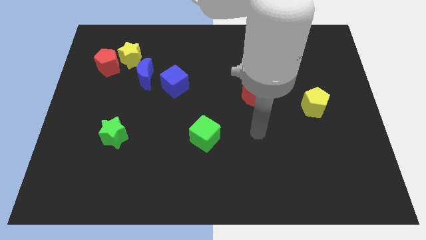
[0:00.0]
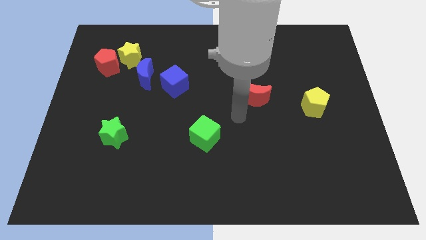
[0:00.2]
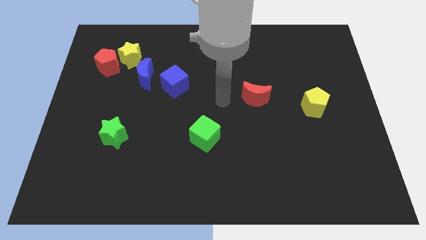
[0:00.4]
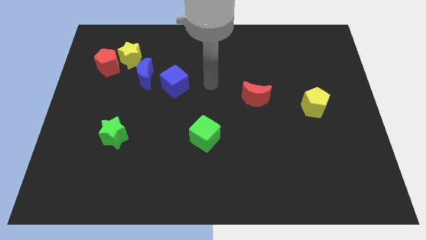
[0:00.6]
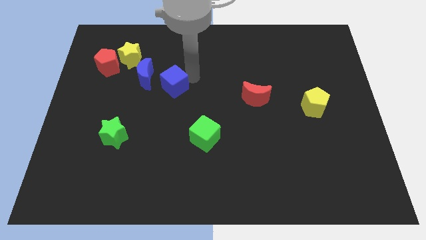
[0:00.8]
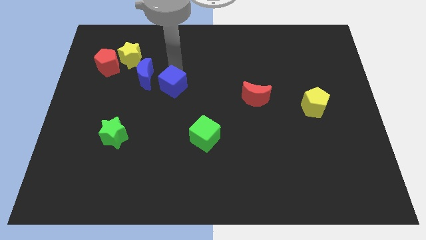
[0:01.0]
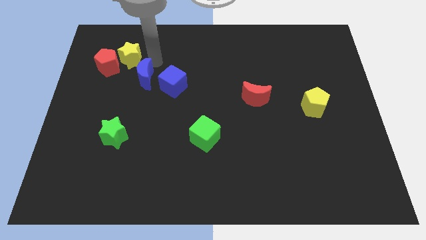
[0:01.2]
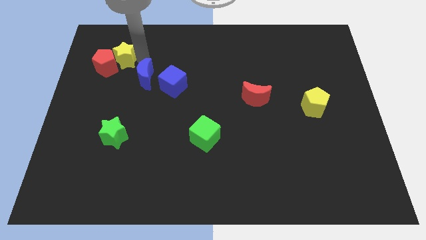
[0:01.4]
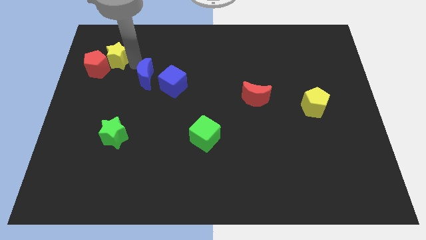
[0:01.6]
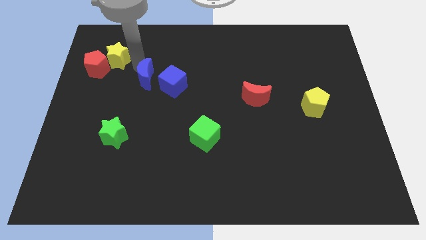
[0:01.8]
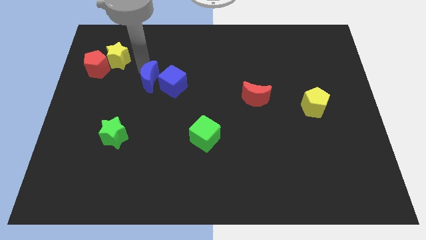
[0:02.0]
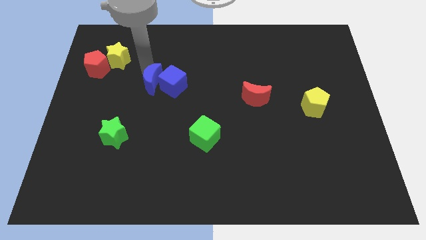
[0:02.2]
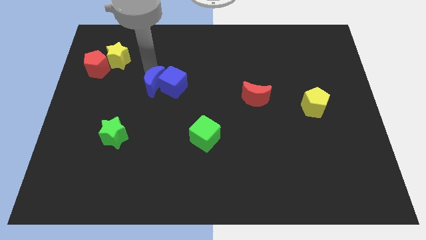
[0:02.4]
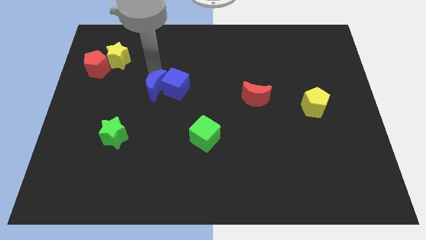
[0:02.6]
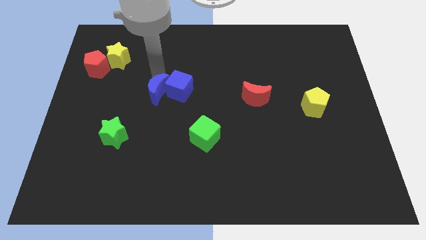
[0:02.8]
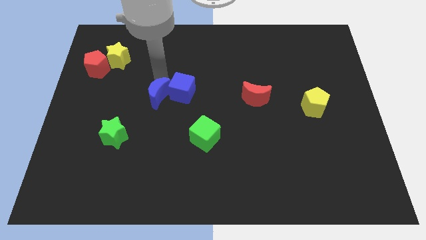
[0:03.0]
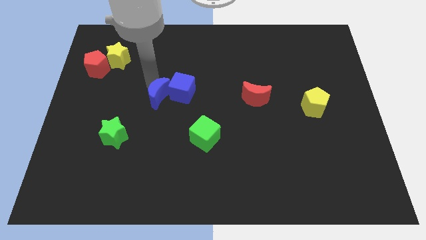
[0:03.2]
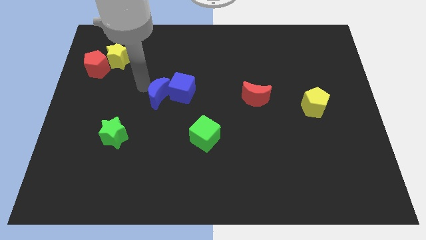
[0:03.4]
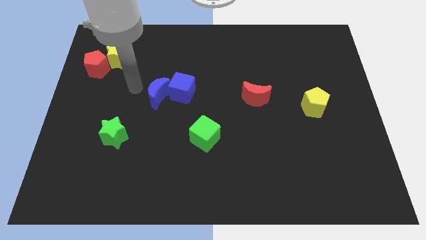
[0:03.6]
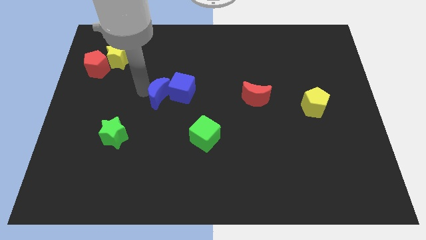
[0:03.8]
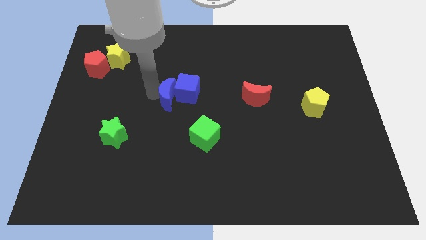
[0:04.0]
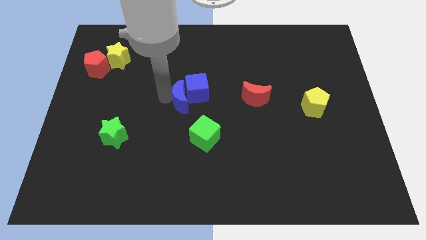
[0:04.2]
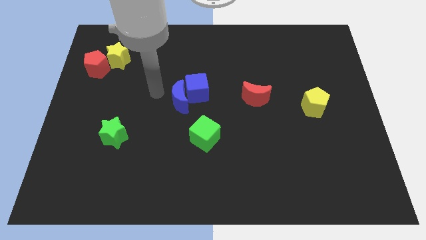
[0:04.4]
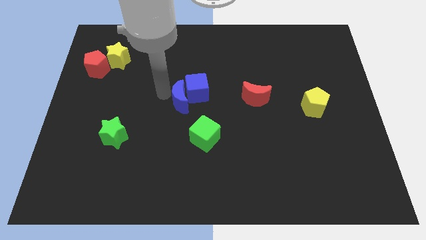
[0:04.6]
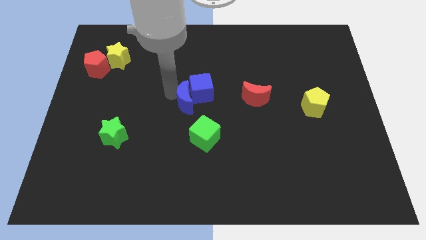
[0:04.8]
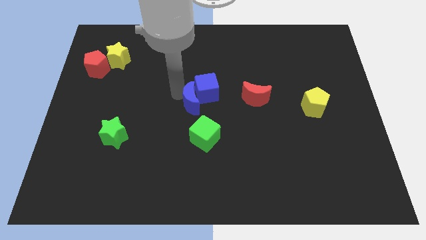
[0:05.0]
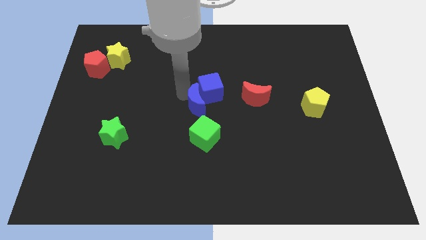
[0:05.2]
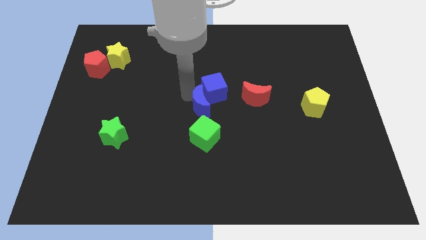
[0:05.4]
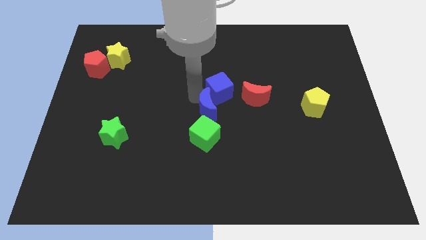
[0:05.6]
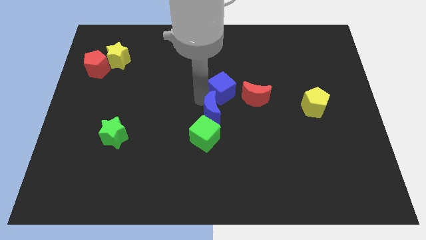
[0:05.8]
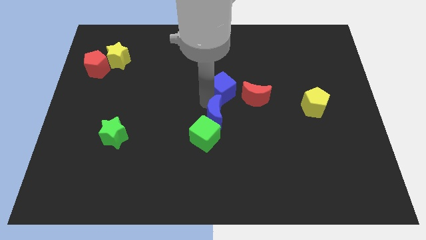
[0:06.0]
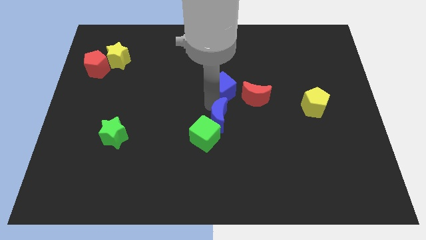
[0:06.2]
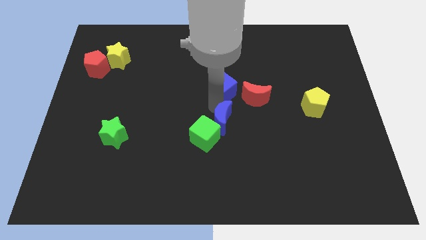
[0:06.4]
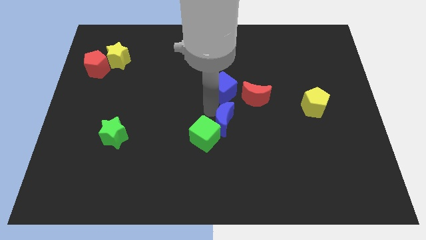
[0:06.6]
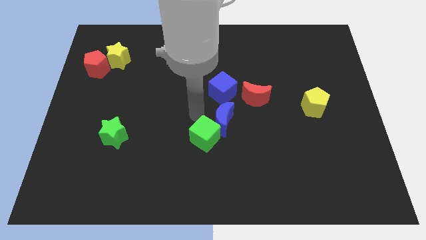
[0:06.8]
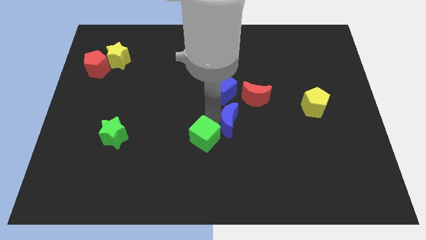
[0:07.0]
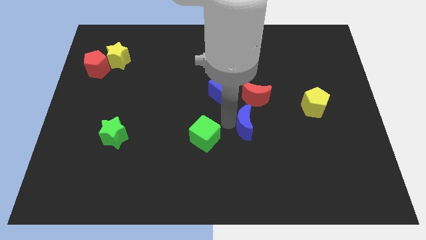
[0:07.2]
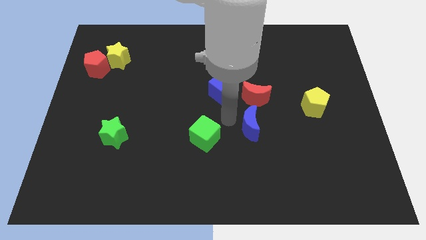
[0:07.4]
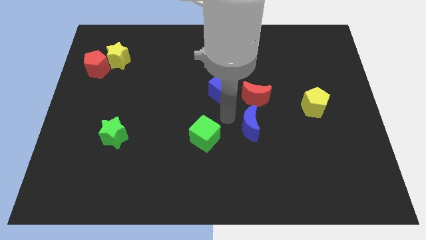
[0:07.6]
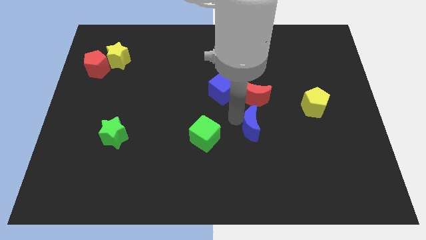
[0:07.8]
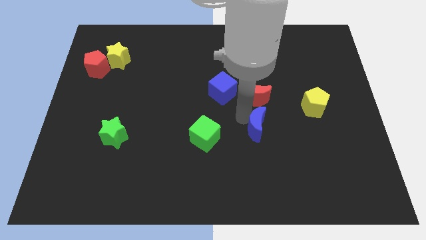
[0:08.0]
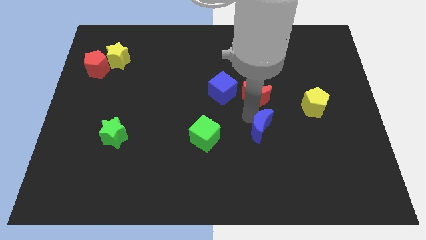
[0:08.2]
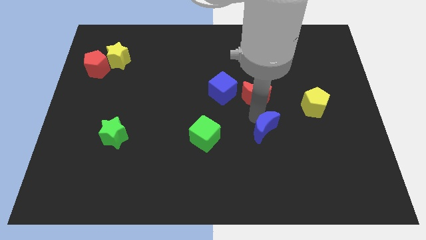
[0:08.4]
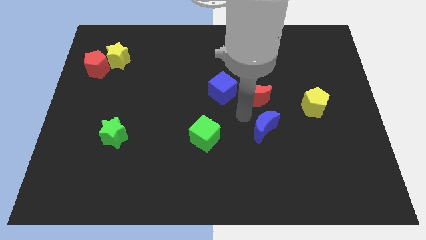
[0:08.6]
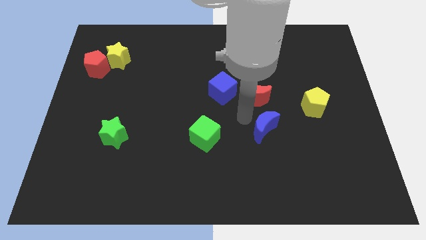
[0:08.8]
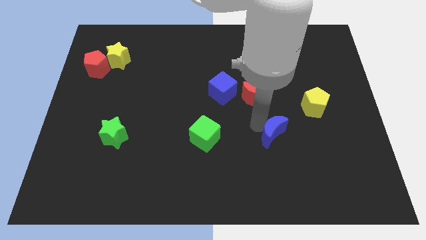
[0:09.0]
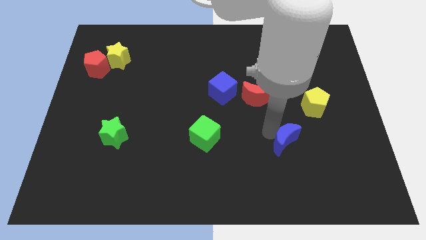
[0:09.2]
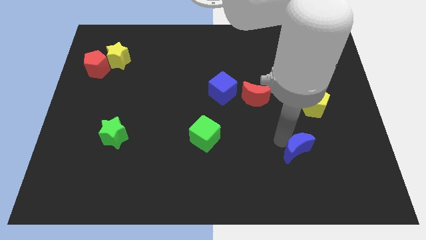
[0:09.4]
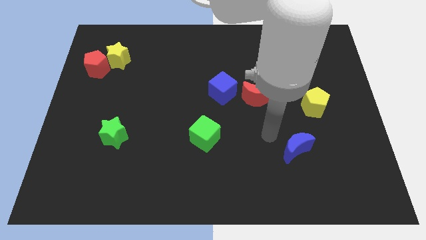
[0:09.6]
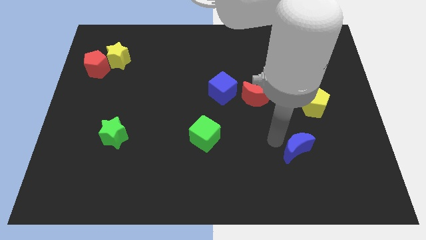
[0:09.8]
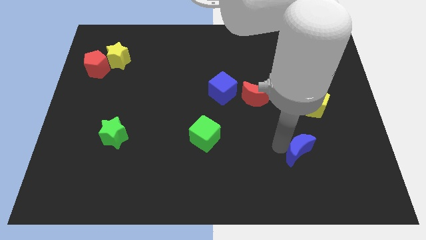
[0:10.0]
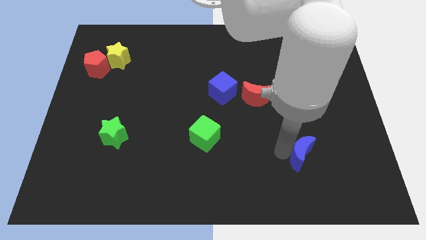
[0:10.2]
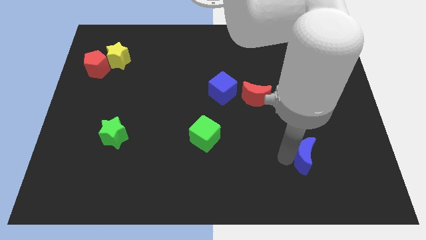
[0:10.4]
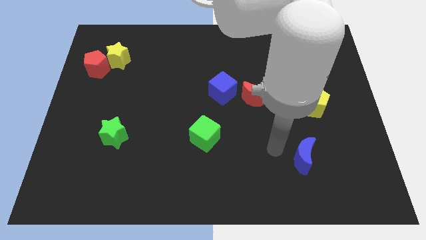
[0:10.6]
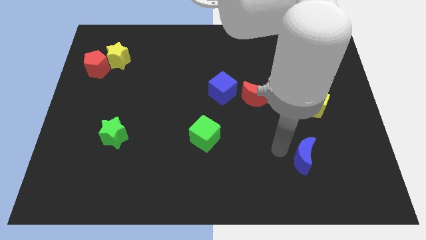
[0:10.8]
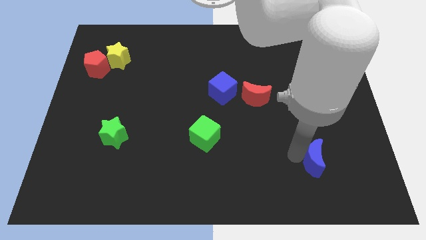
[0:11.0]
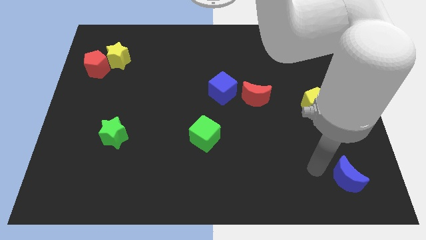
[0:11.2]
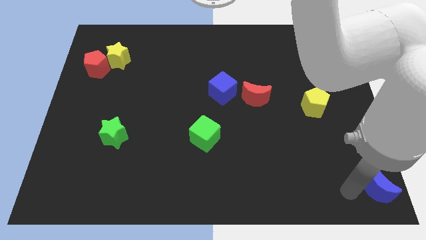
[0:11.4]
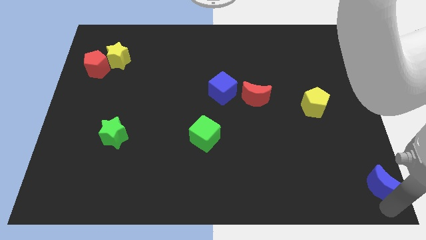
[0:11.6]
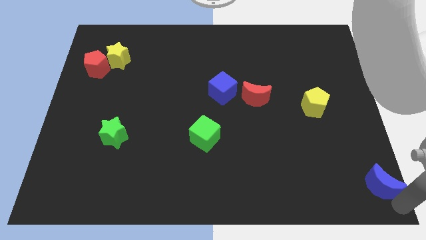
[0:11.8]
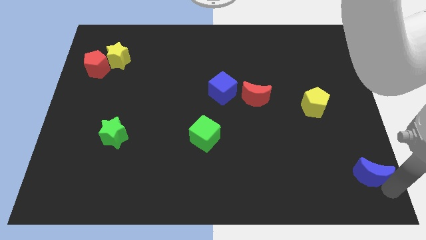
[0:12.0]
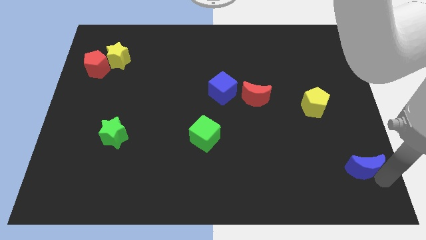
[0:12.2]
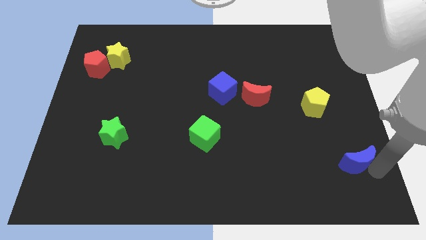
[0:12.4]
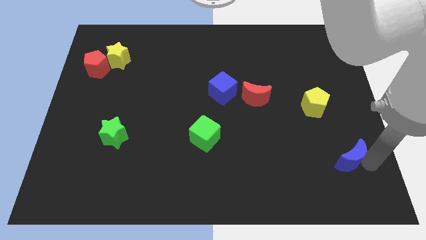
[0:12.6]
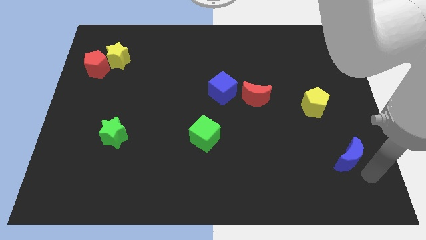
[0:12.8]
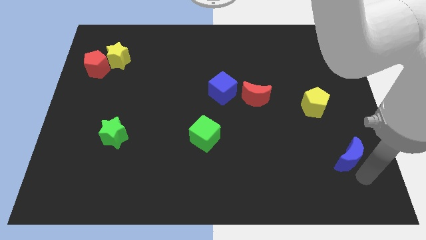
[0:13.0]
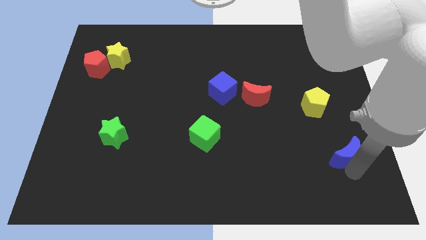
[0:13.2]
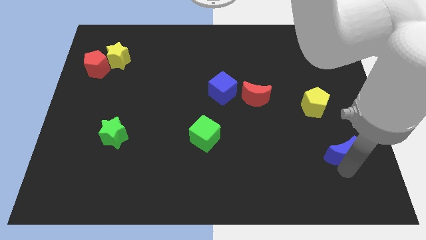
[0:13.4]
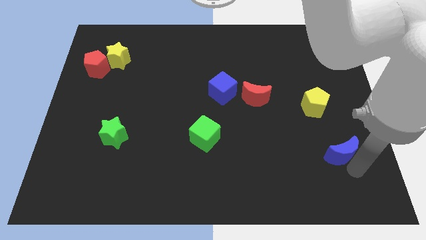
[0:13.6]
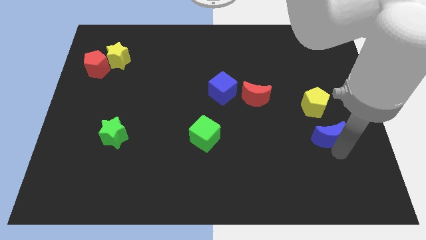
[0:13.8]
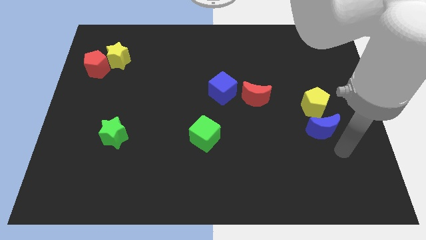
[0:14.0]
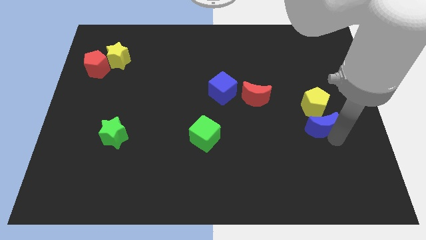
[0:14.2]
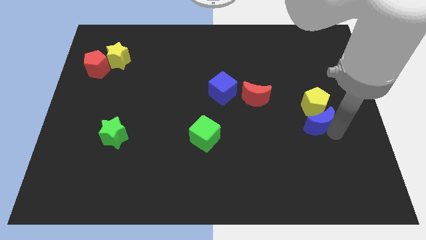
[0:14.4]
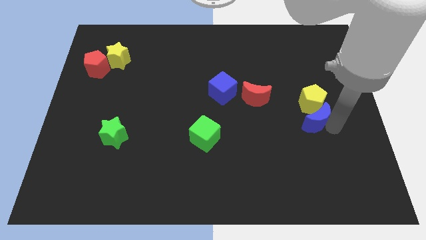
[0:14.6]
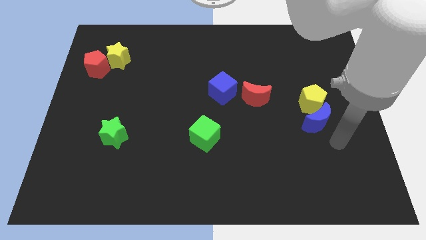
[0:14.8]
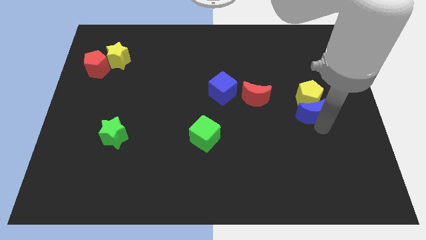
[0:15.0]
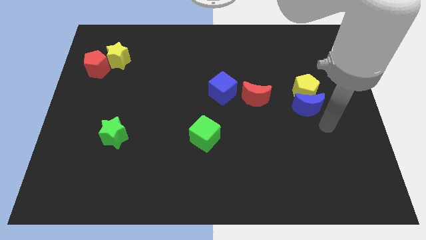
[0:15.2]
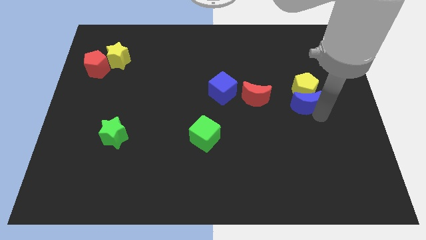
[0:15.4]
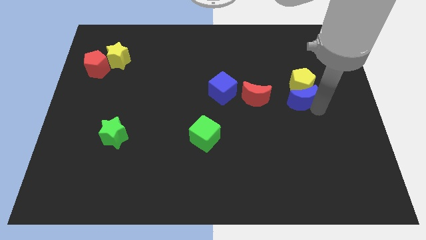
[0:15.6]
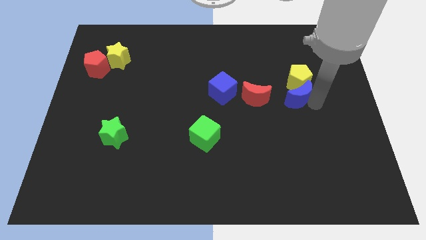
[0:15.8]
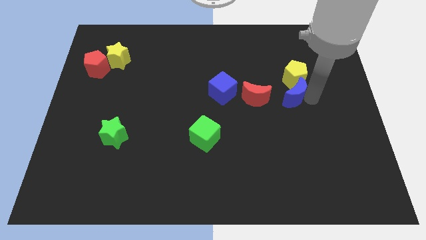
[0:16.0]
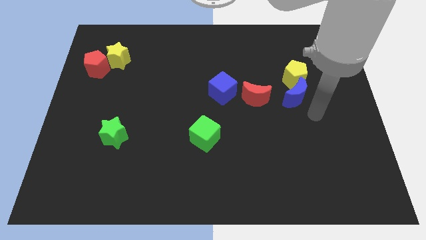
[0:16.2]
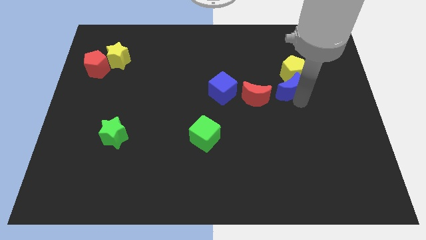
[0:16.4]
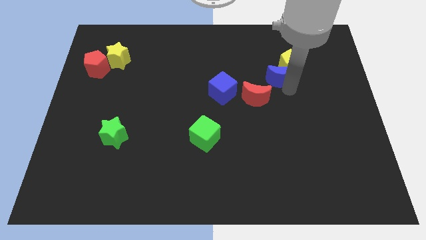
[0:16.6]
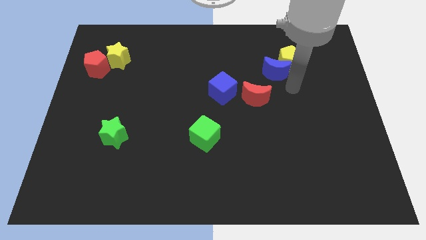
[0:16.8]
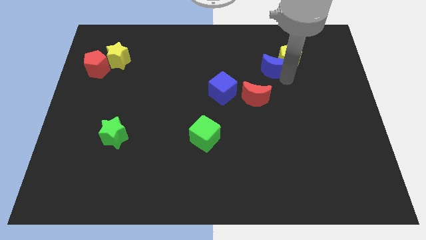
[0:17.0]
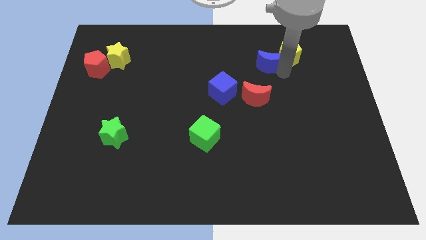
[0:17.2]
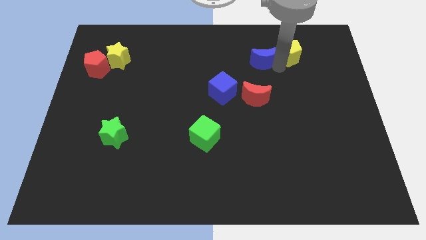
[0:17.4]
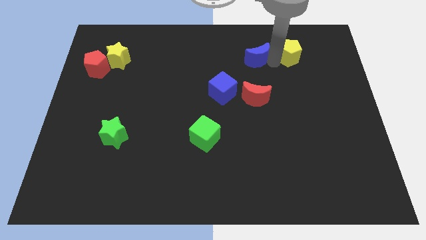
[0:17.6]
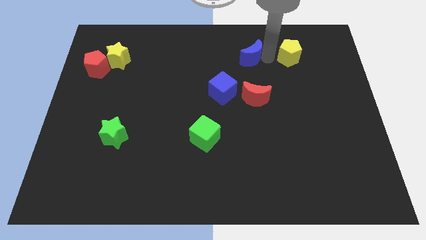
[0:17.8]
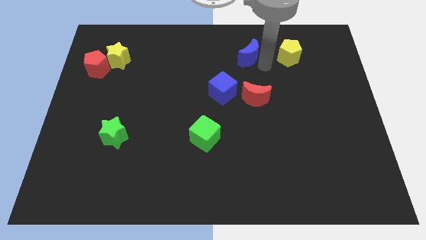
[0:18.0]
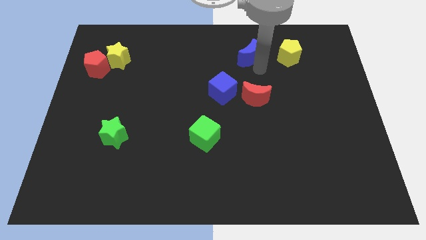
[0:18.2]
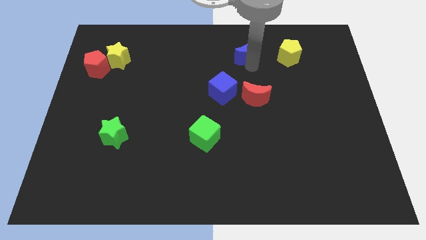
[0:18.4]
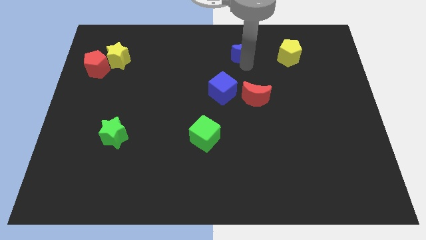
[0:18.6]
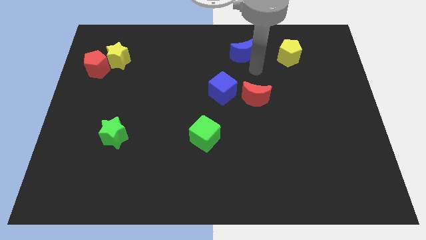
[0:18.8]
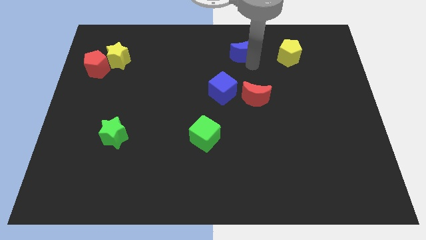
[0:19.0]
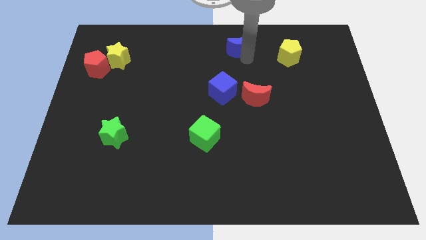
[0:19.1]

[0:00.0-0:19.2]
push the blue moon to the top
